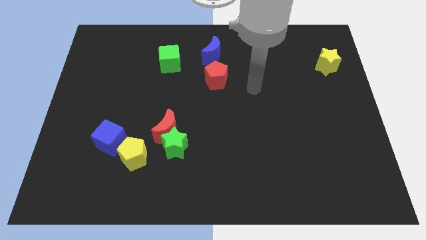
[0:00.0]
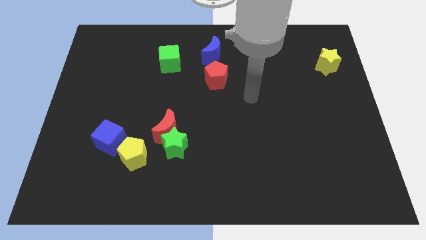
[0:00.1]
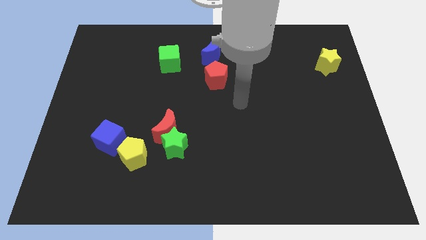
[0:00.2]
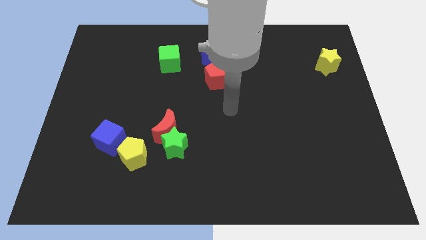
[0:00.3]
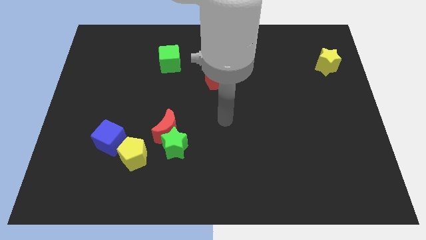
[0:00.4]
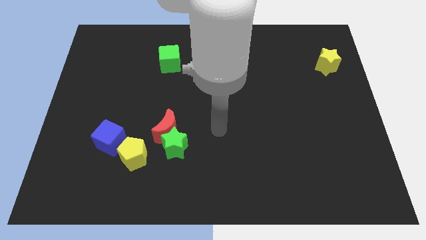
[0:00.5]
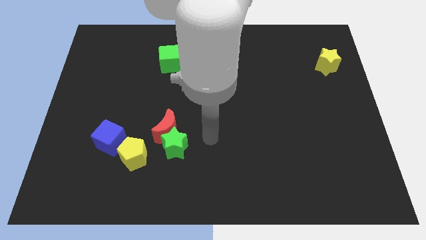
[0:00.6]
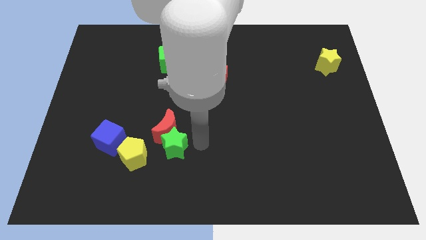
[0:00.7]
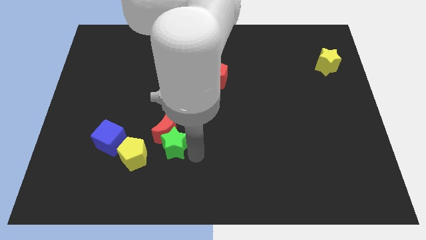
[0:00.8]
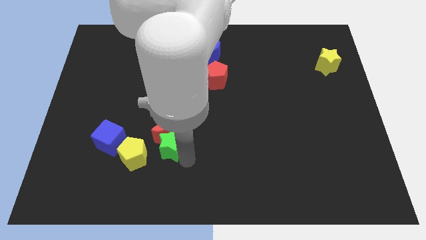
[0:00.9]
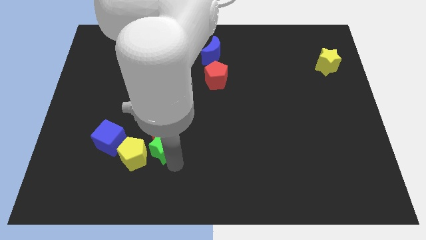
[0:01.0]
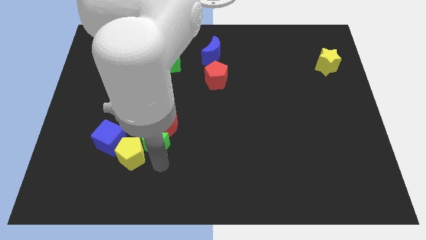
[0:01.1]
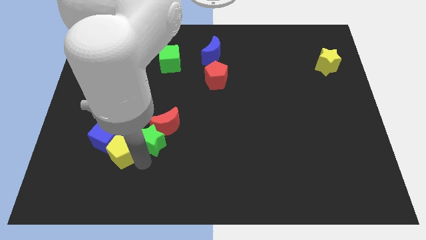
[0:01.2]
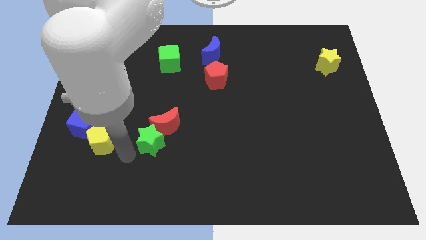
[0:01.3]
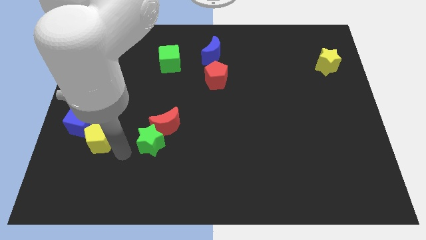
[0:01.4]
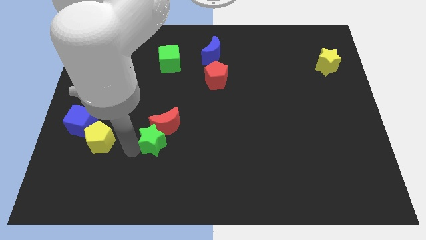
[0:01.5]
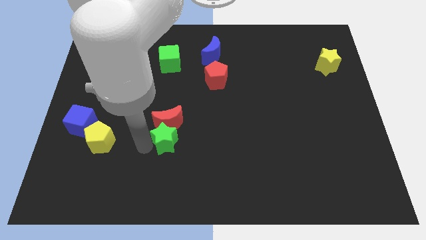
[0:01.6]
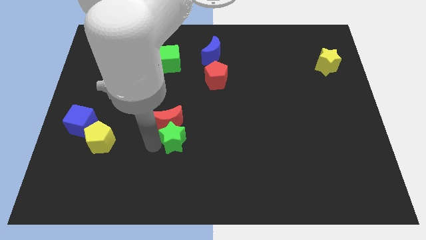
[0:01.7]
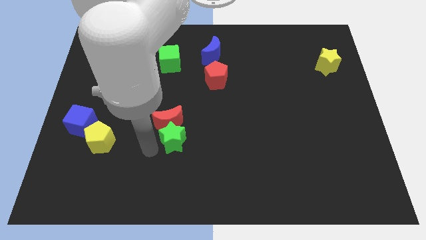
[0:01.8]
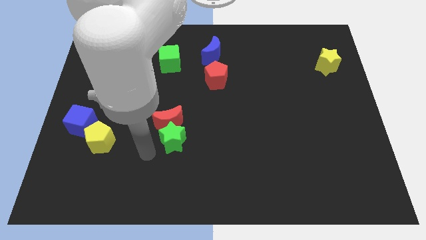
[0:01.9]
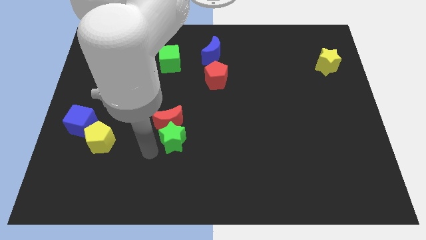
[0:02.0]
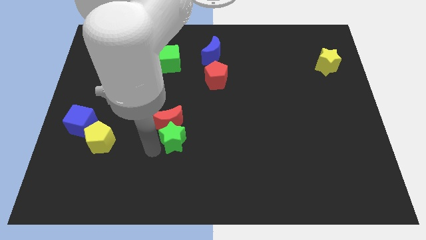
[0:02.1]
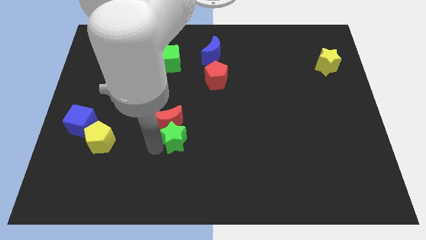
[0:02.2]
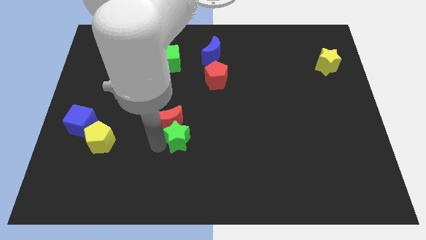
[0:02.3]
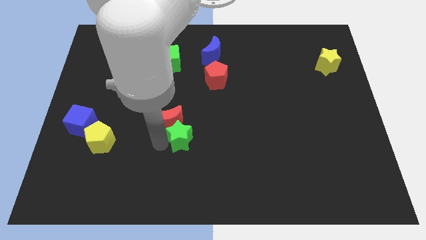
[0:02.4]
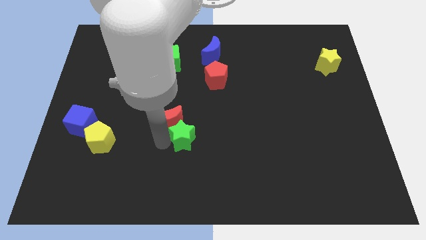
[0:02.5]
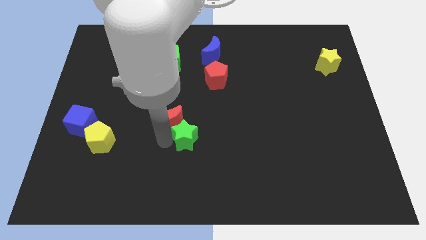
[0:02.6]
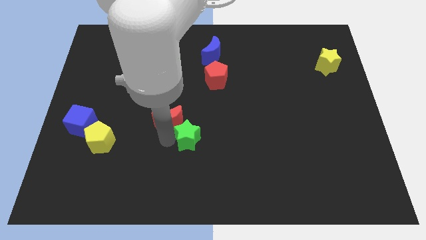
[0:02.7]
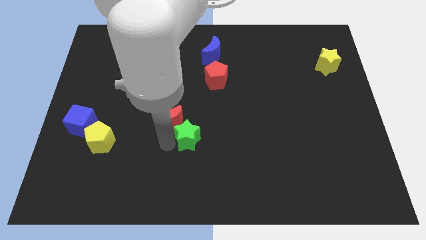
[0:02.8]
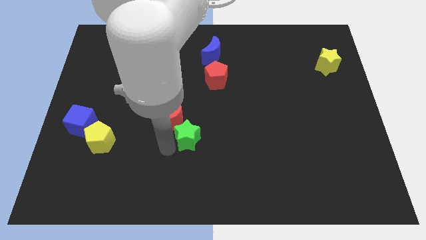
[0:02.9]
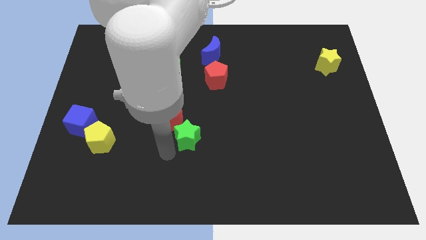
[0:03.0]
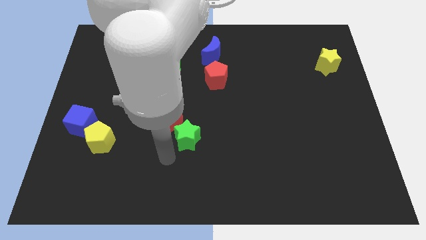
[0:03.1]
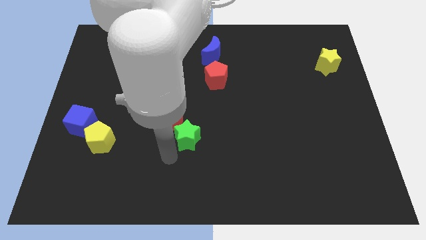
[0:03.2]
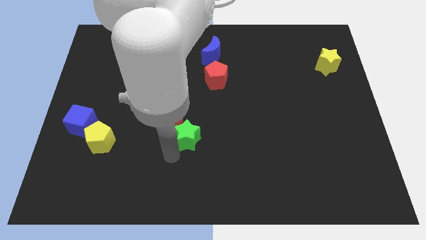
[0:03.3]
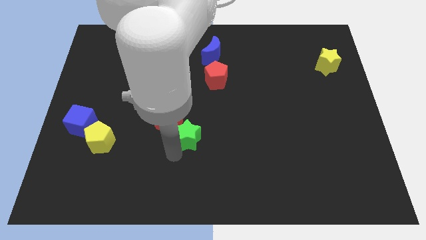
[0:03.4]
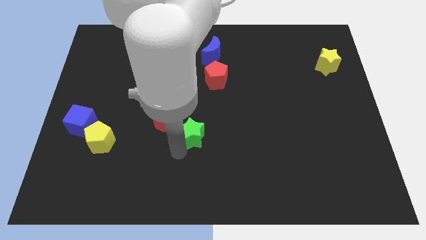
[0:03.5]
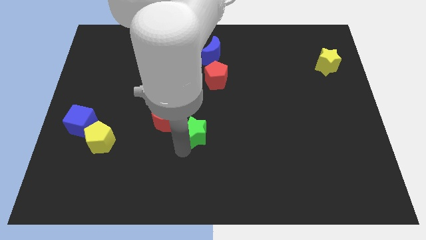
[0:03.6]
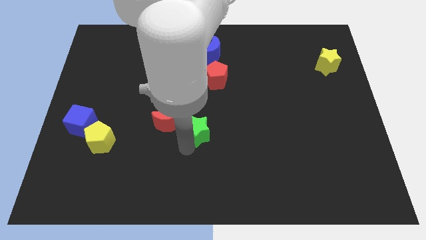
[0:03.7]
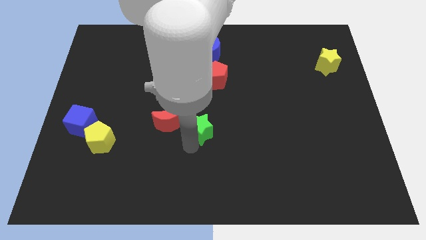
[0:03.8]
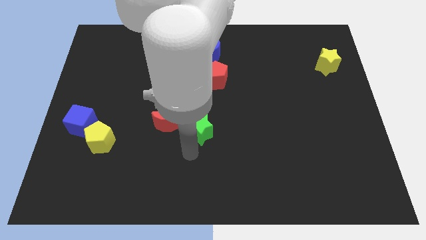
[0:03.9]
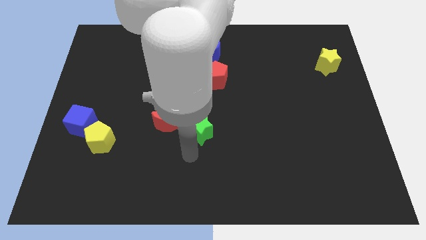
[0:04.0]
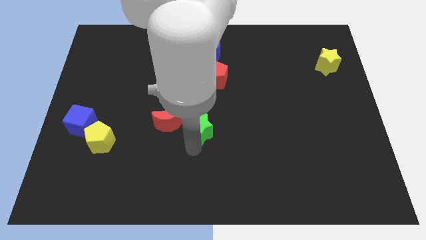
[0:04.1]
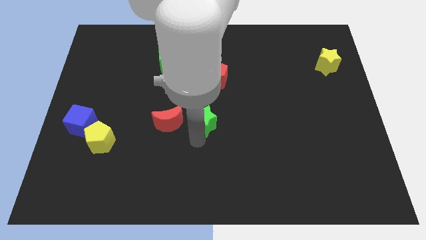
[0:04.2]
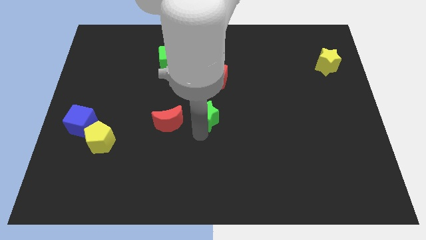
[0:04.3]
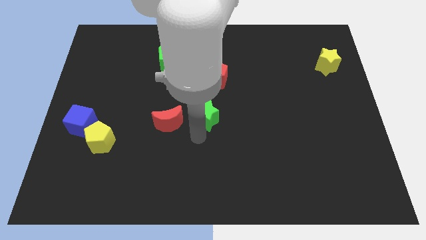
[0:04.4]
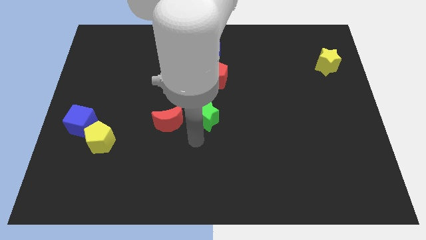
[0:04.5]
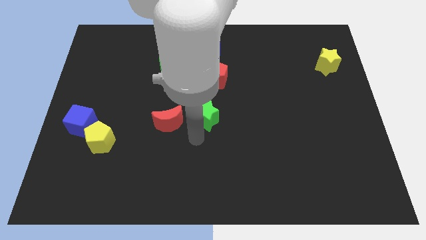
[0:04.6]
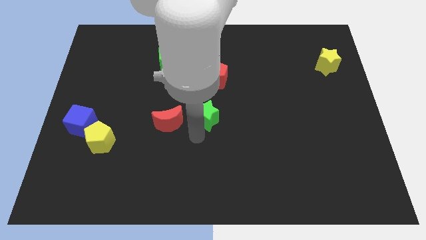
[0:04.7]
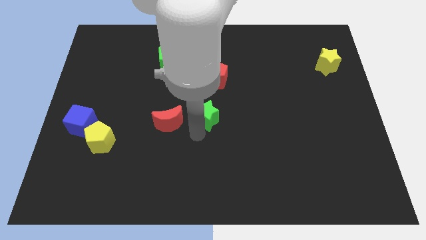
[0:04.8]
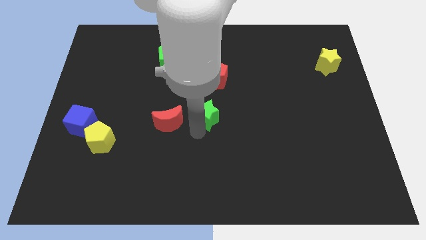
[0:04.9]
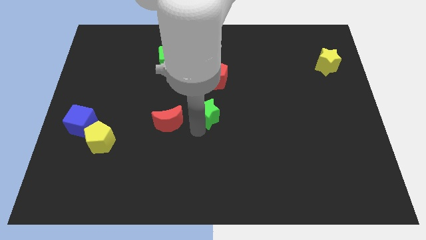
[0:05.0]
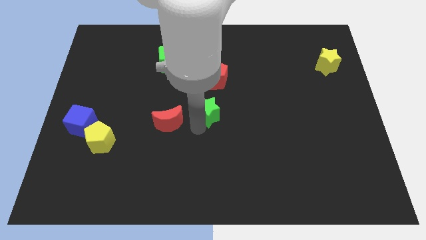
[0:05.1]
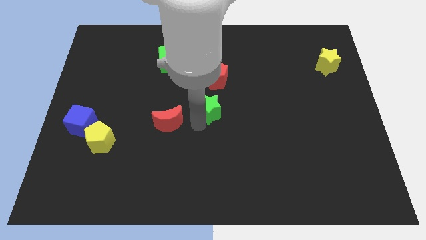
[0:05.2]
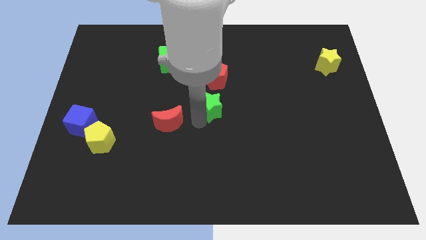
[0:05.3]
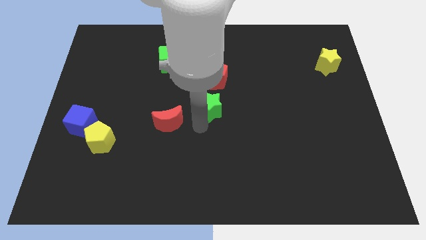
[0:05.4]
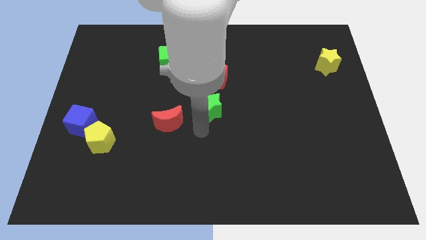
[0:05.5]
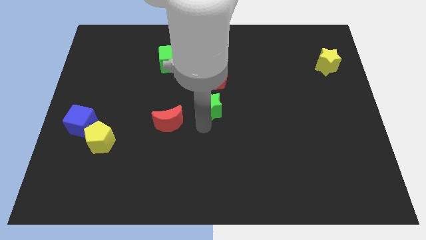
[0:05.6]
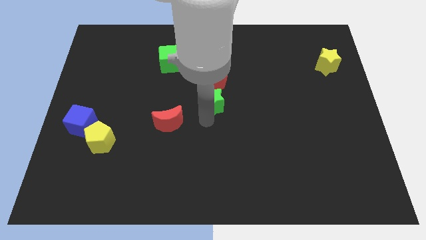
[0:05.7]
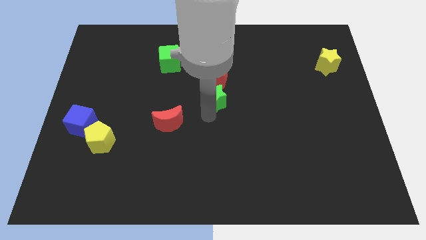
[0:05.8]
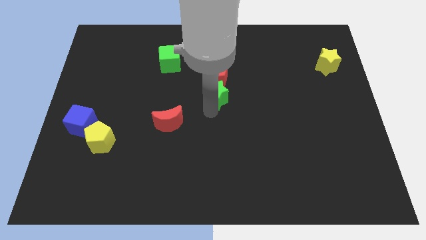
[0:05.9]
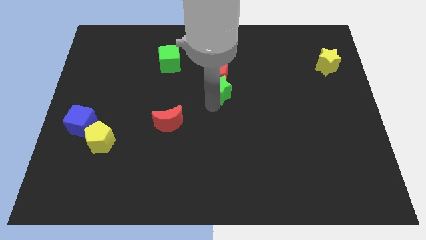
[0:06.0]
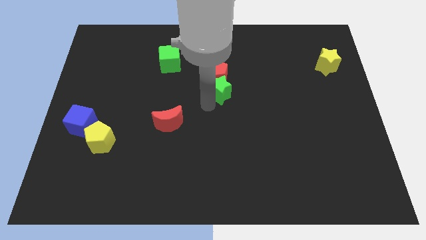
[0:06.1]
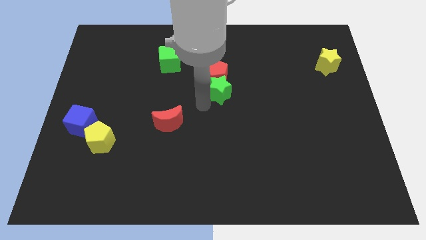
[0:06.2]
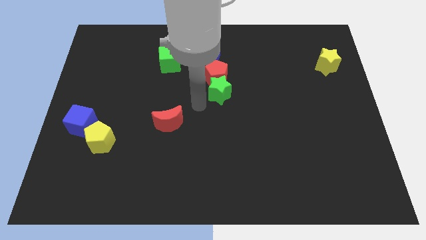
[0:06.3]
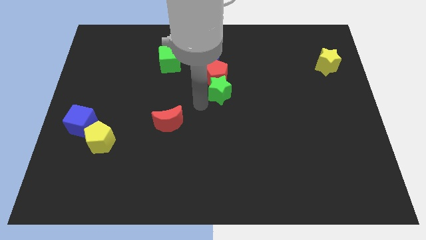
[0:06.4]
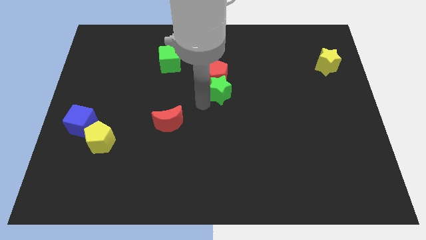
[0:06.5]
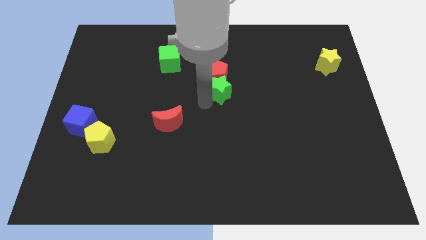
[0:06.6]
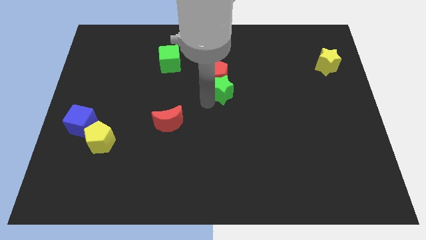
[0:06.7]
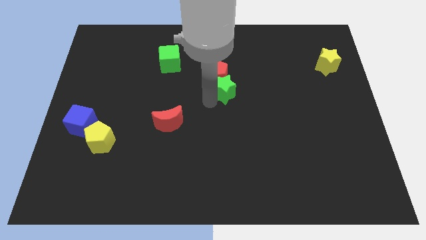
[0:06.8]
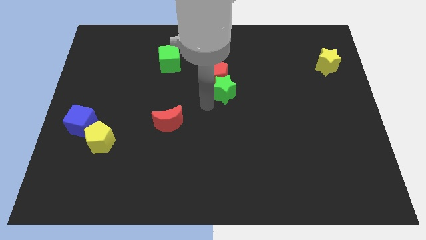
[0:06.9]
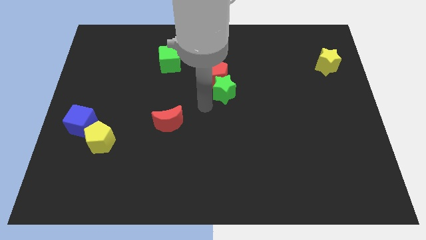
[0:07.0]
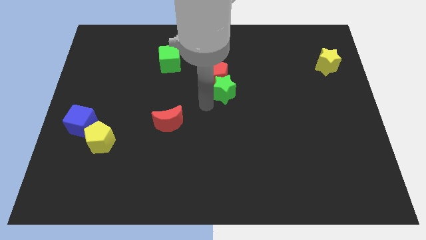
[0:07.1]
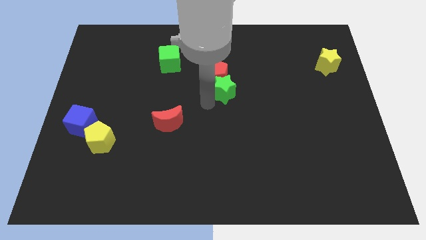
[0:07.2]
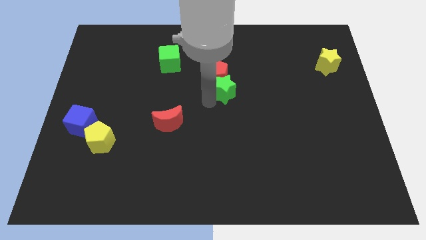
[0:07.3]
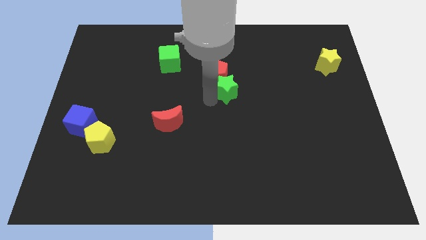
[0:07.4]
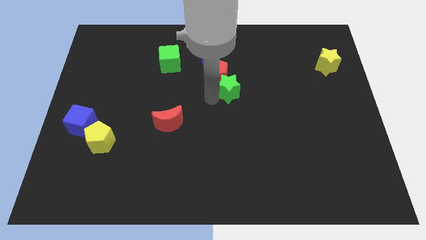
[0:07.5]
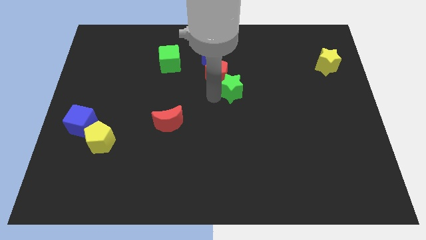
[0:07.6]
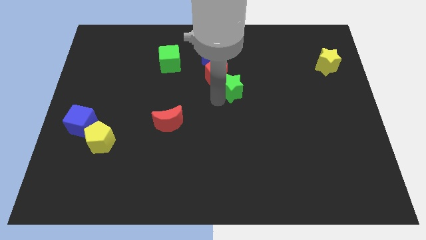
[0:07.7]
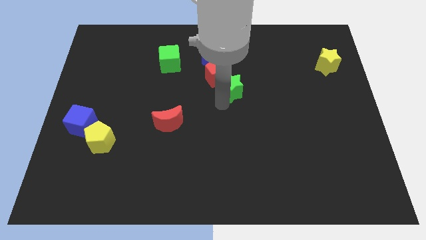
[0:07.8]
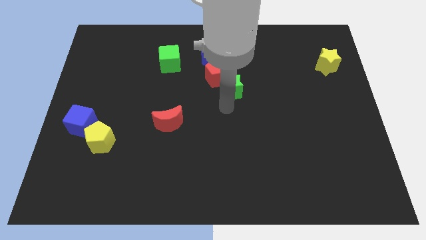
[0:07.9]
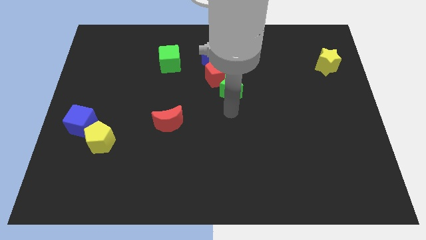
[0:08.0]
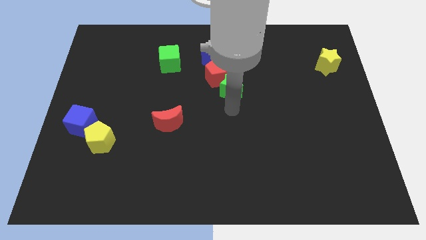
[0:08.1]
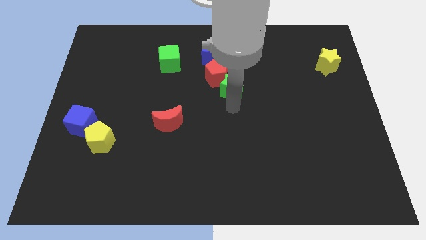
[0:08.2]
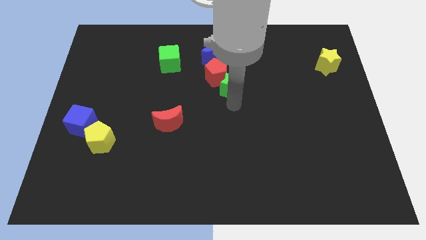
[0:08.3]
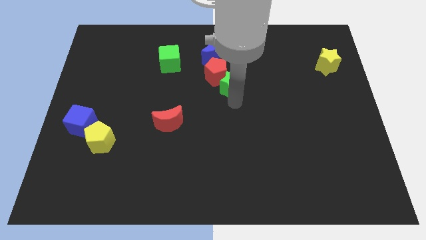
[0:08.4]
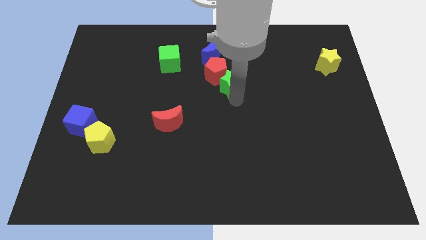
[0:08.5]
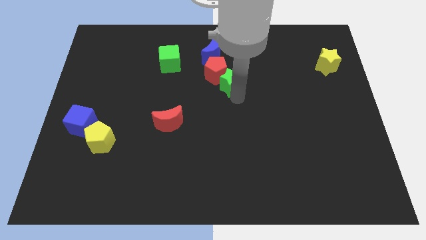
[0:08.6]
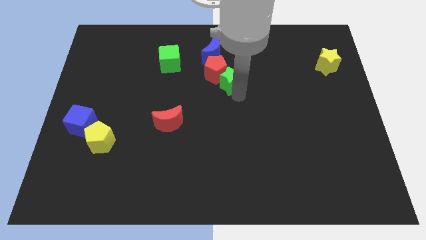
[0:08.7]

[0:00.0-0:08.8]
push the green star to the bottom right side of the blue moon
